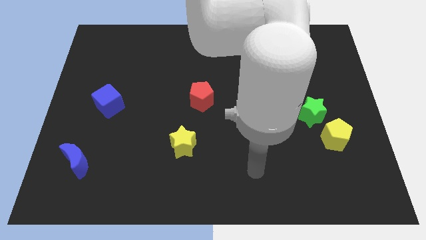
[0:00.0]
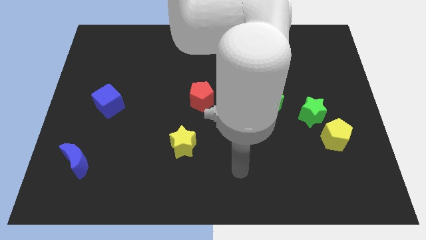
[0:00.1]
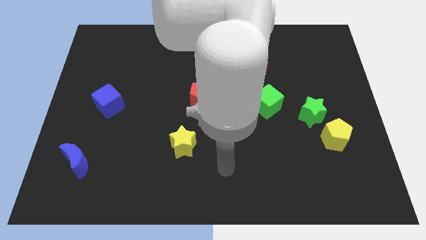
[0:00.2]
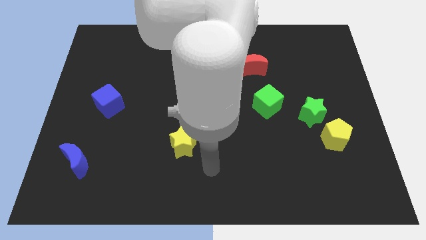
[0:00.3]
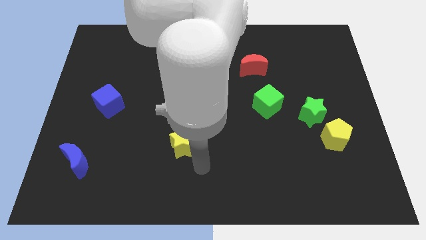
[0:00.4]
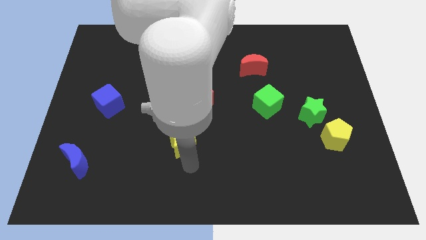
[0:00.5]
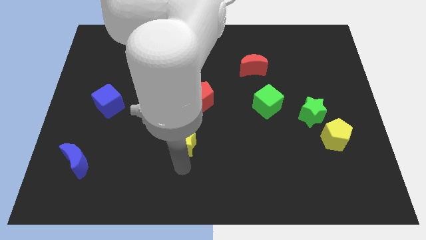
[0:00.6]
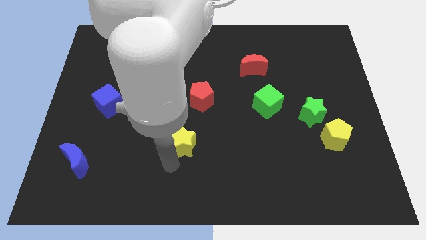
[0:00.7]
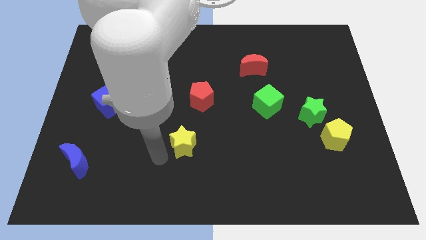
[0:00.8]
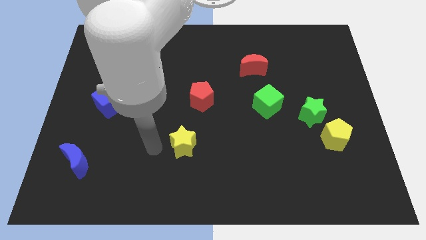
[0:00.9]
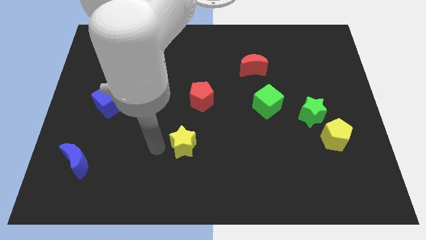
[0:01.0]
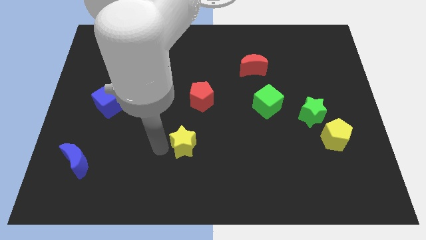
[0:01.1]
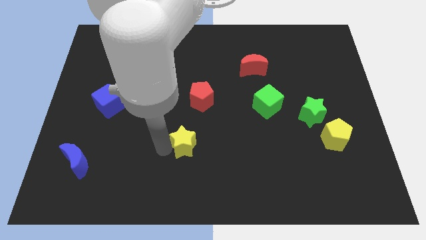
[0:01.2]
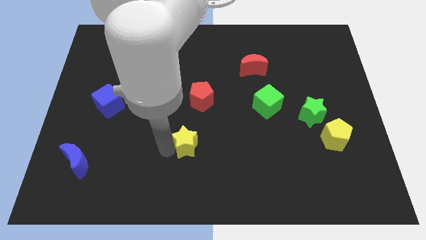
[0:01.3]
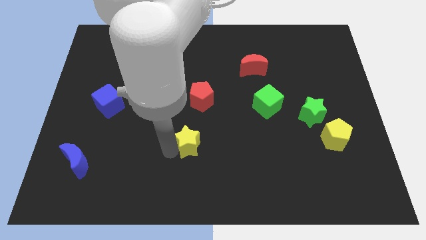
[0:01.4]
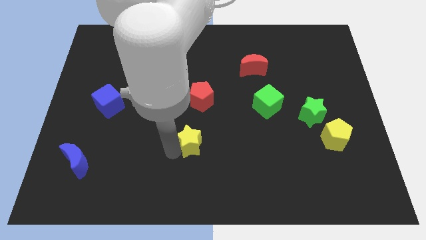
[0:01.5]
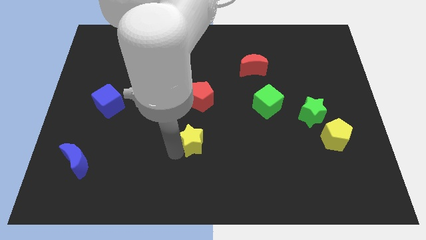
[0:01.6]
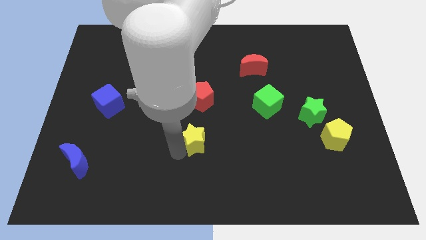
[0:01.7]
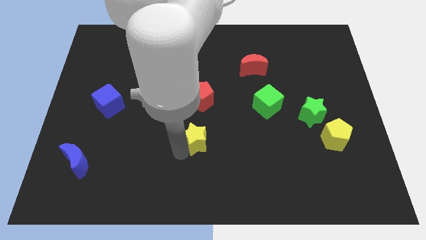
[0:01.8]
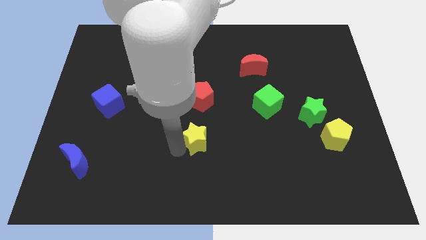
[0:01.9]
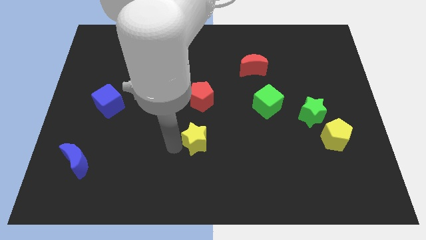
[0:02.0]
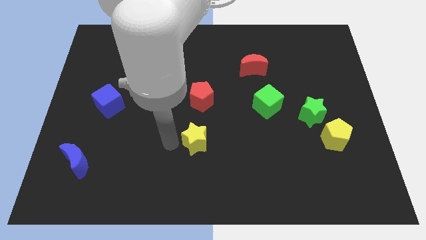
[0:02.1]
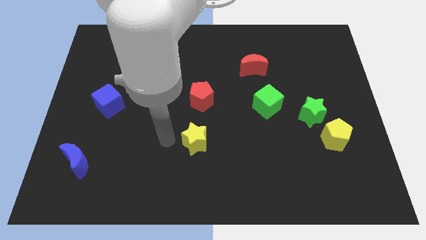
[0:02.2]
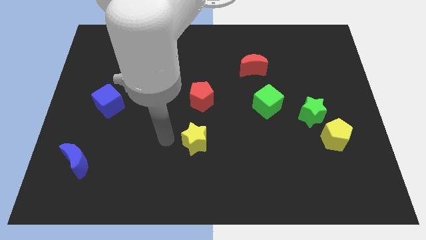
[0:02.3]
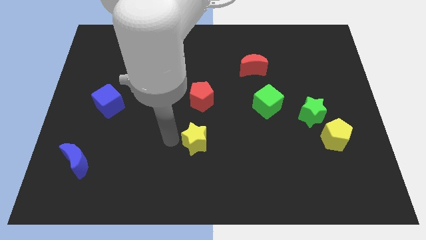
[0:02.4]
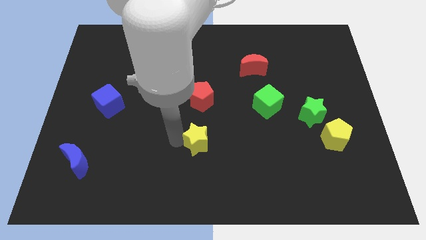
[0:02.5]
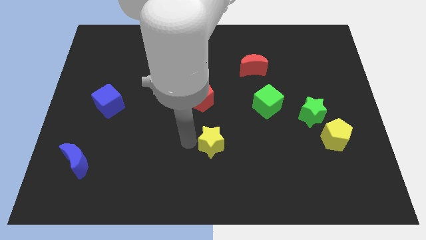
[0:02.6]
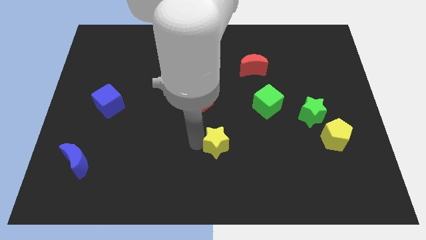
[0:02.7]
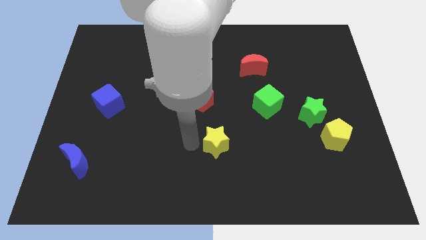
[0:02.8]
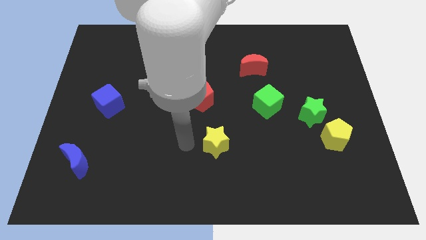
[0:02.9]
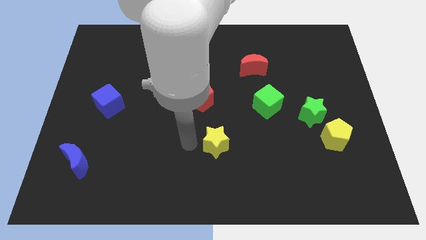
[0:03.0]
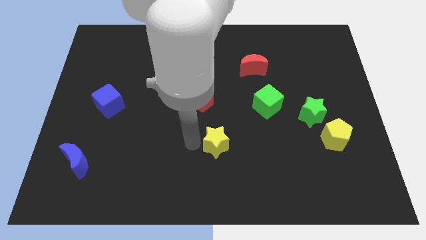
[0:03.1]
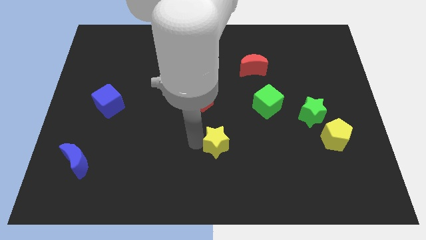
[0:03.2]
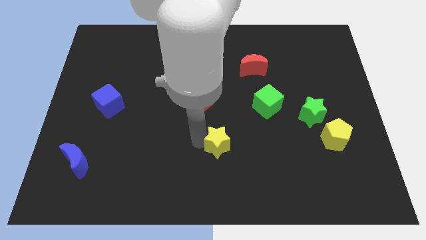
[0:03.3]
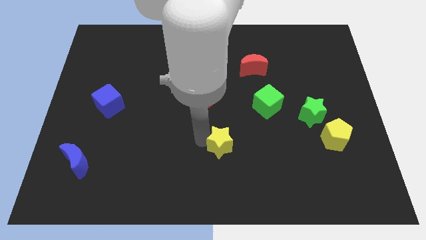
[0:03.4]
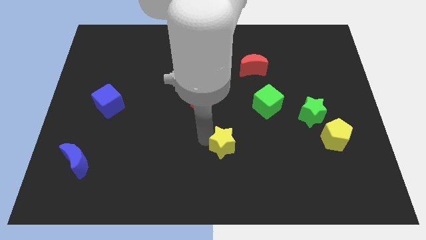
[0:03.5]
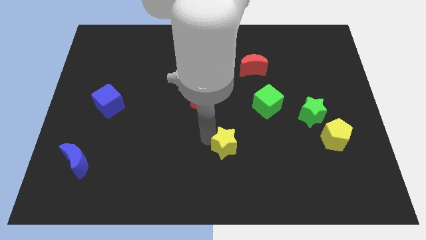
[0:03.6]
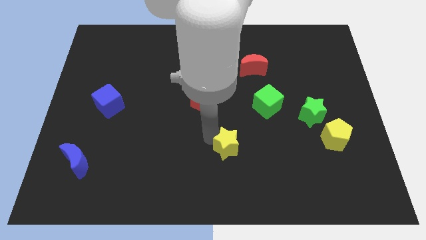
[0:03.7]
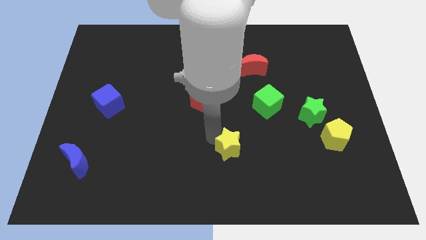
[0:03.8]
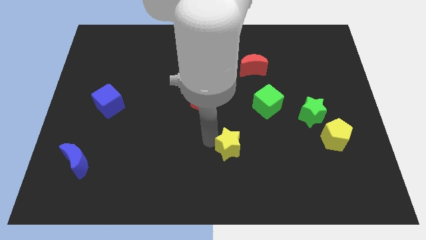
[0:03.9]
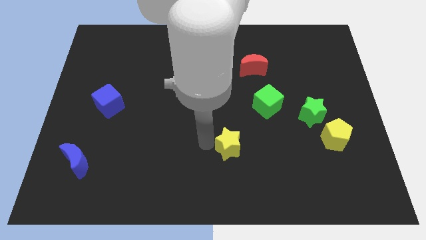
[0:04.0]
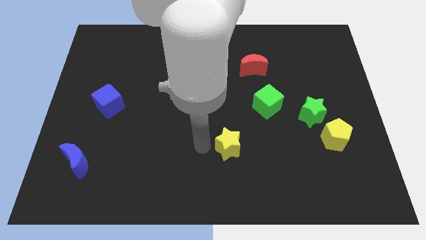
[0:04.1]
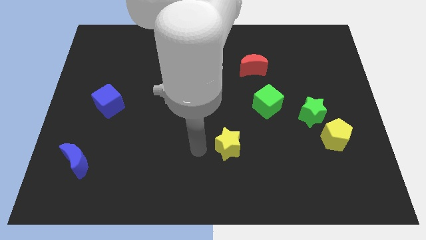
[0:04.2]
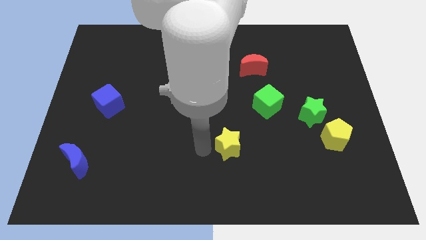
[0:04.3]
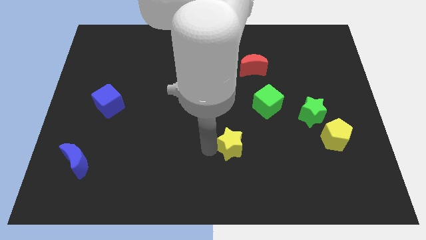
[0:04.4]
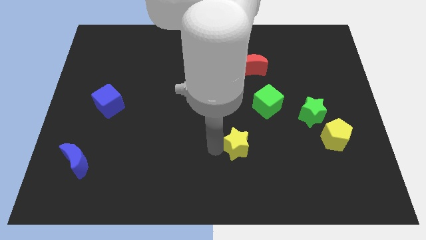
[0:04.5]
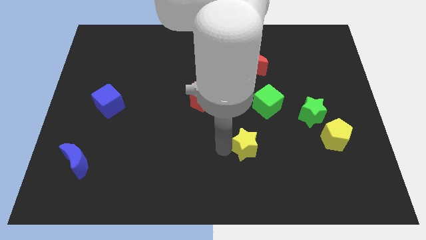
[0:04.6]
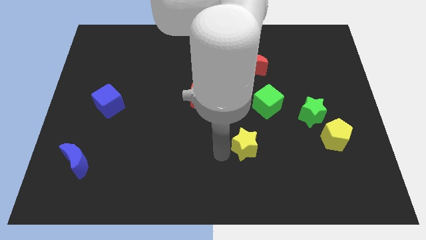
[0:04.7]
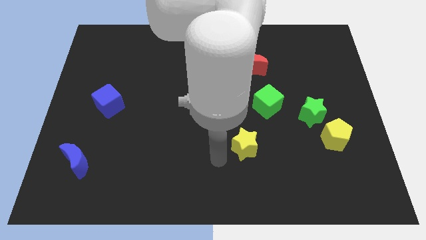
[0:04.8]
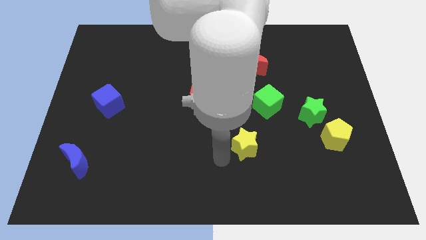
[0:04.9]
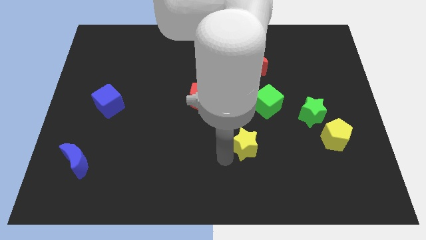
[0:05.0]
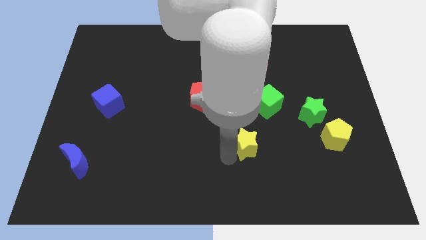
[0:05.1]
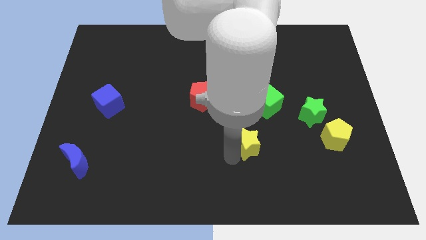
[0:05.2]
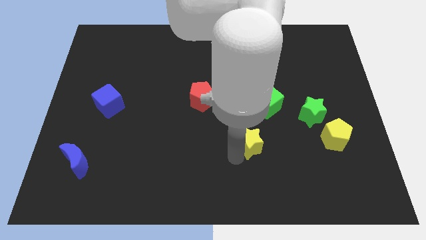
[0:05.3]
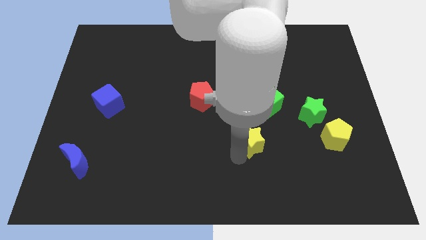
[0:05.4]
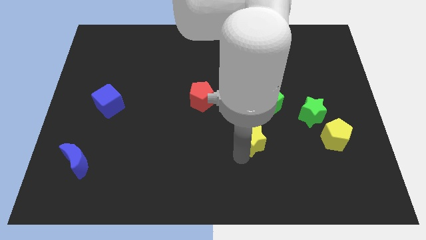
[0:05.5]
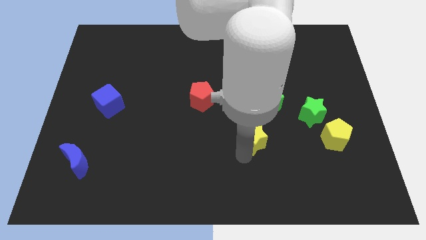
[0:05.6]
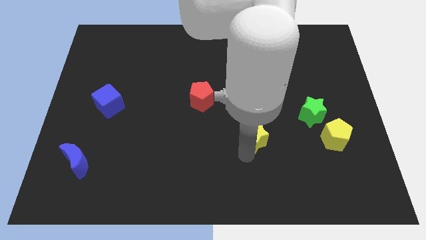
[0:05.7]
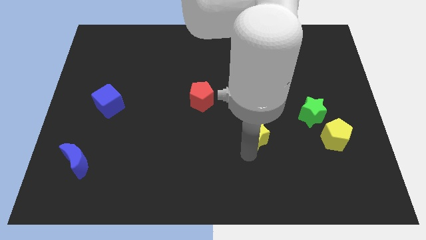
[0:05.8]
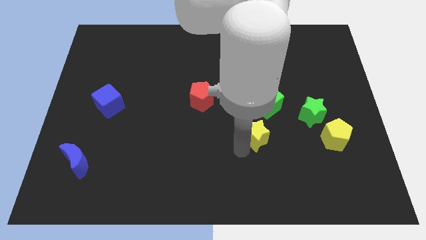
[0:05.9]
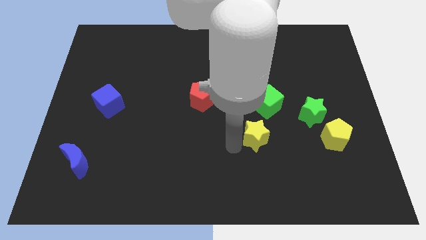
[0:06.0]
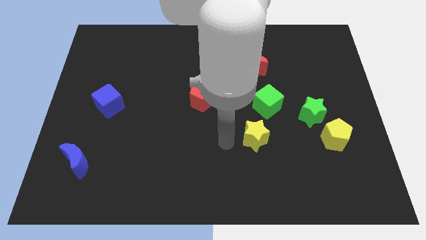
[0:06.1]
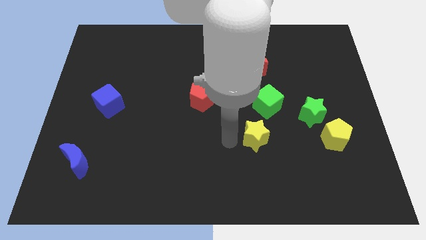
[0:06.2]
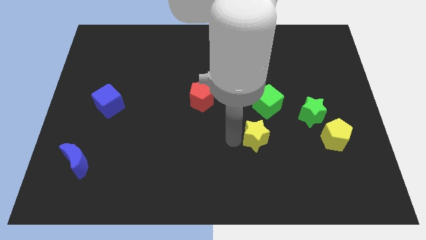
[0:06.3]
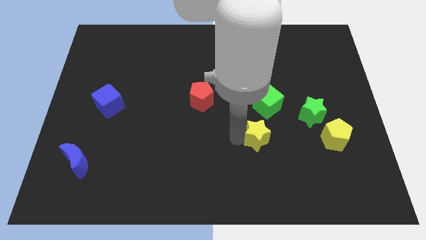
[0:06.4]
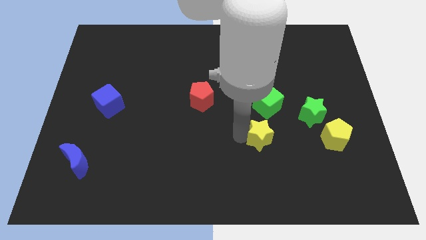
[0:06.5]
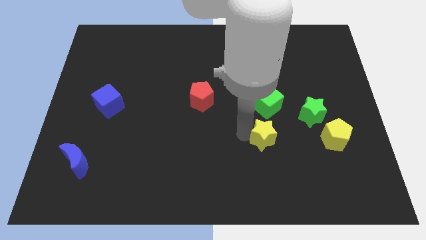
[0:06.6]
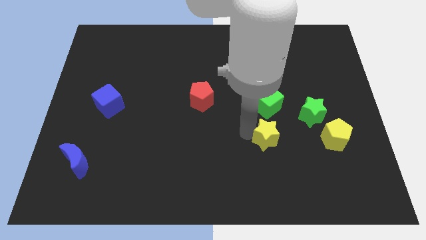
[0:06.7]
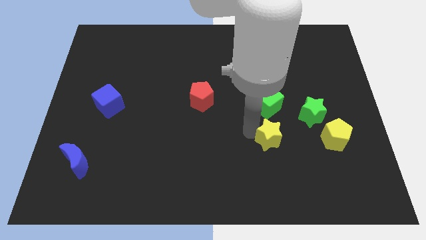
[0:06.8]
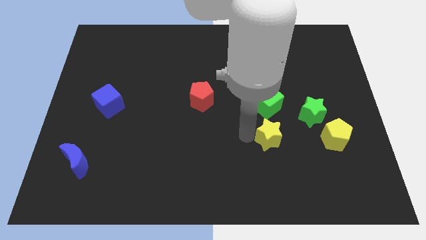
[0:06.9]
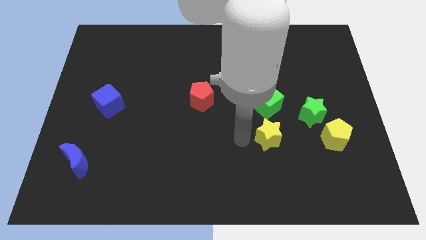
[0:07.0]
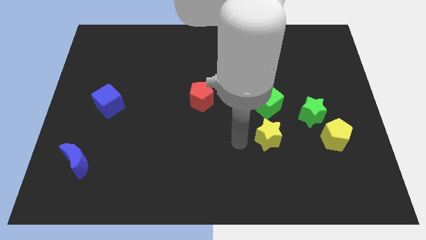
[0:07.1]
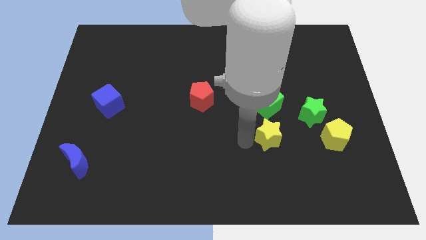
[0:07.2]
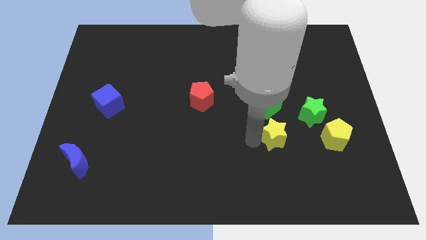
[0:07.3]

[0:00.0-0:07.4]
push the yellow star to the bottom left of the green star

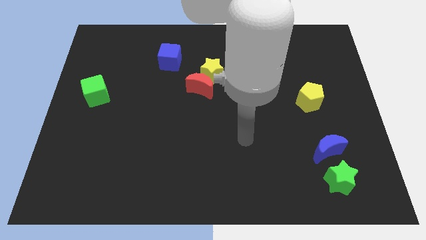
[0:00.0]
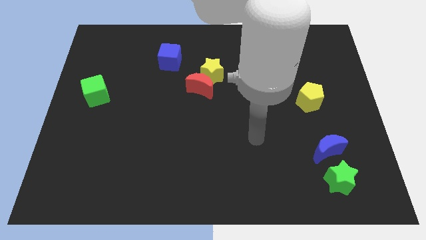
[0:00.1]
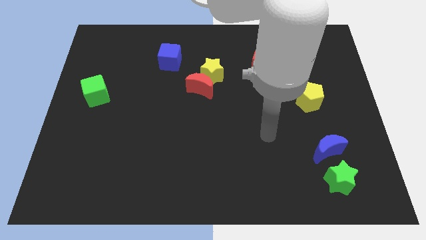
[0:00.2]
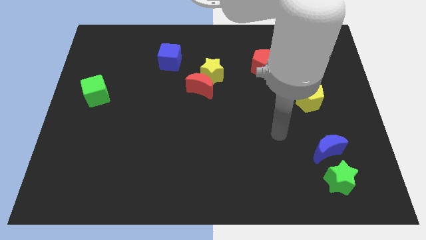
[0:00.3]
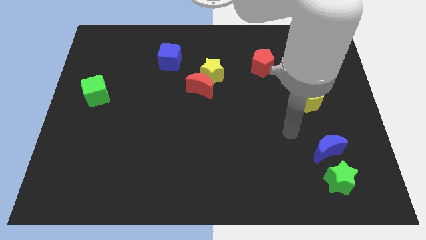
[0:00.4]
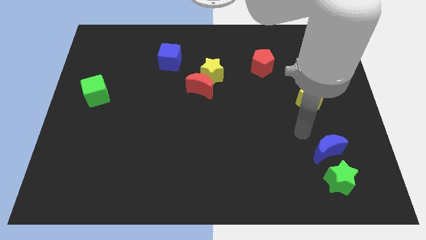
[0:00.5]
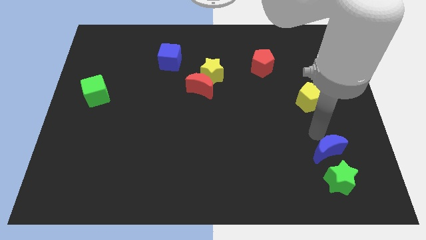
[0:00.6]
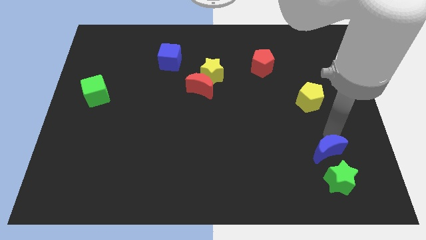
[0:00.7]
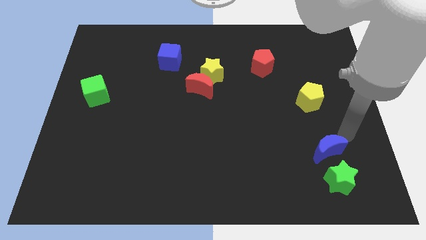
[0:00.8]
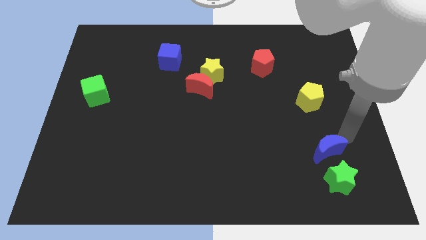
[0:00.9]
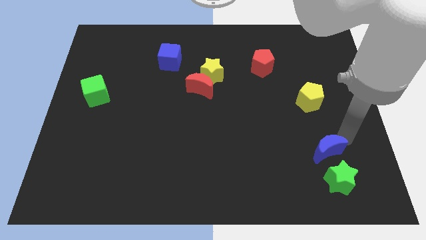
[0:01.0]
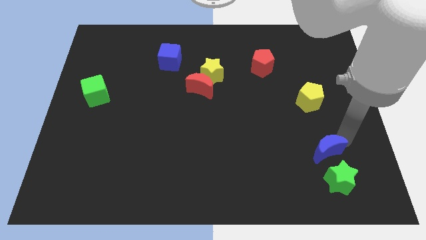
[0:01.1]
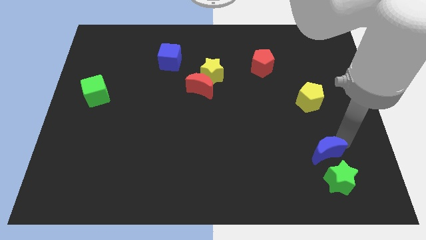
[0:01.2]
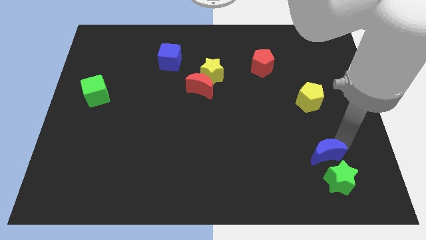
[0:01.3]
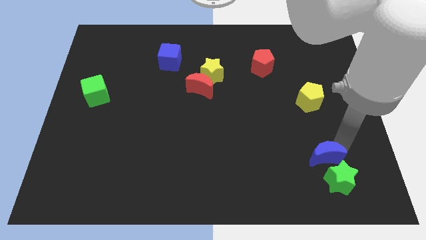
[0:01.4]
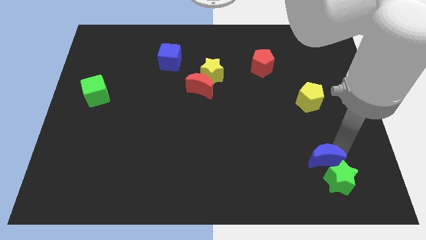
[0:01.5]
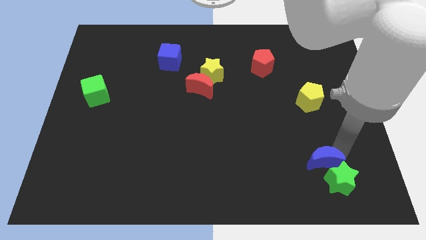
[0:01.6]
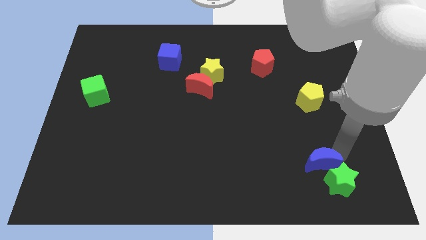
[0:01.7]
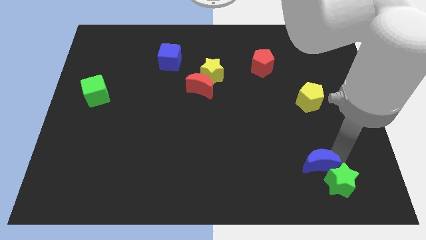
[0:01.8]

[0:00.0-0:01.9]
put the blue moon left of the green star
